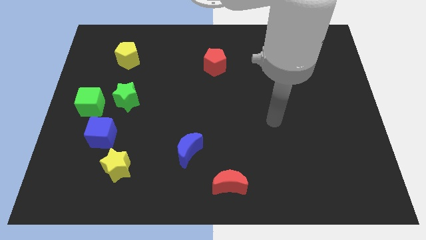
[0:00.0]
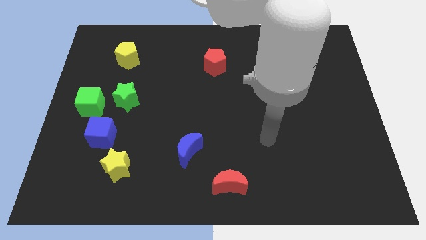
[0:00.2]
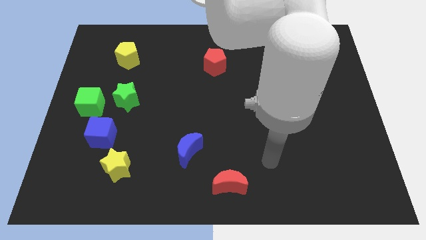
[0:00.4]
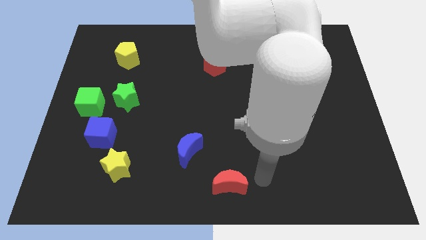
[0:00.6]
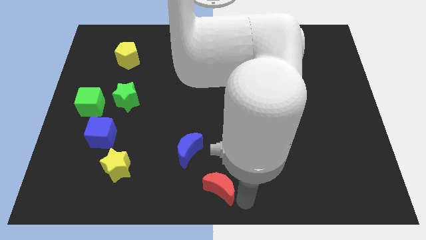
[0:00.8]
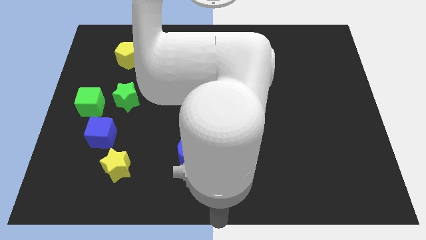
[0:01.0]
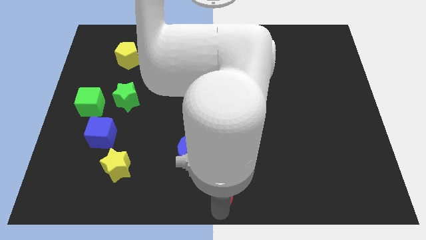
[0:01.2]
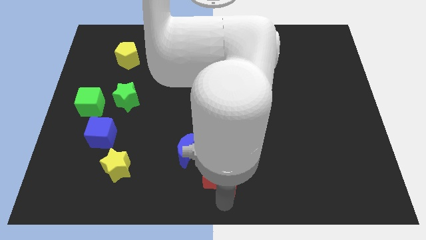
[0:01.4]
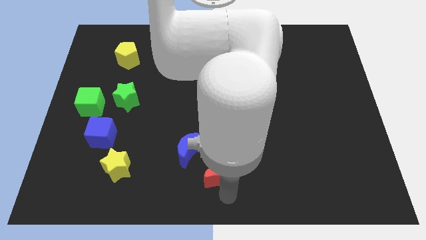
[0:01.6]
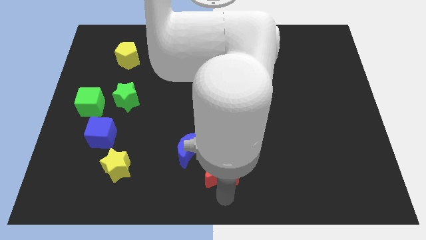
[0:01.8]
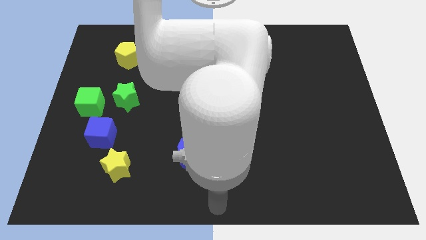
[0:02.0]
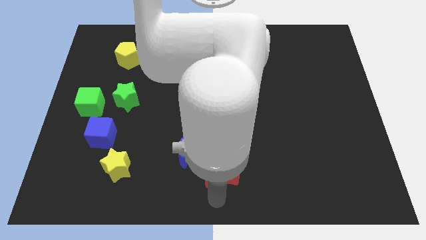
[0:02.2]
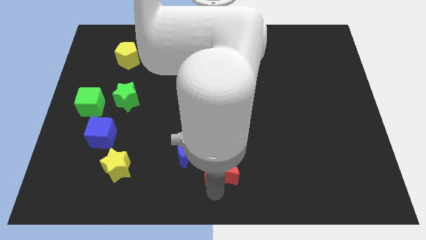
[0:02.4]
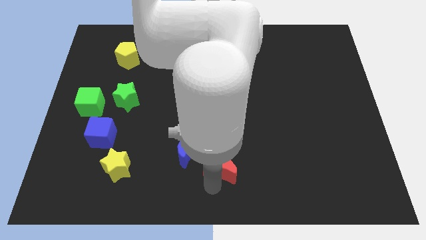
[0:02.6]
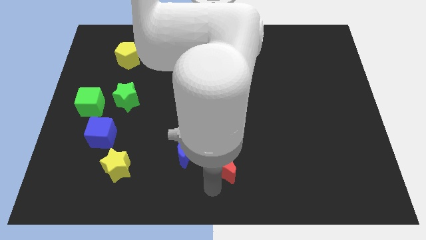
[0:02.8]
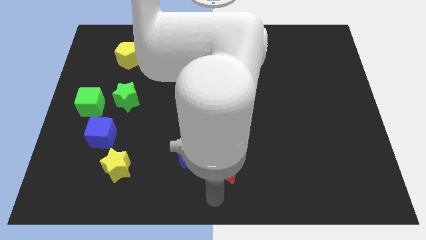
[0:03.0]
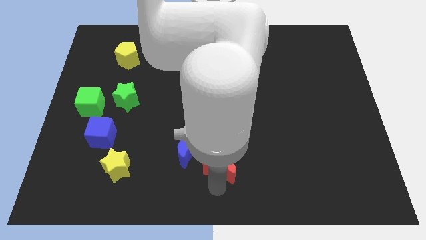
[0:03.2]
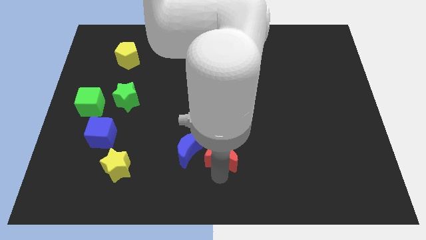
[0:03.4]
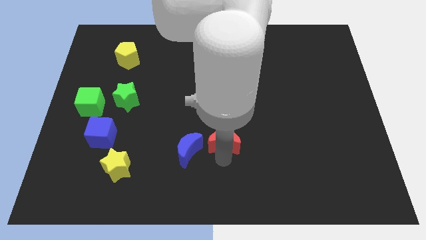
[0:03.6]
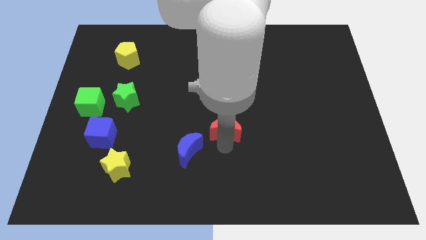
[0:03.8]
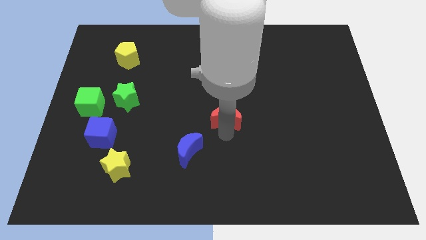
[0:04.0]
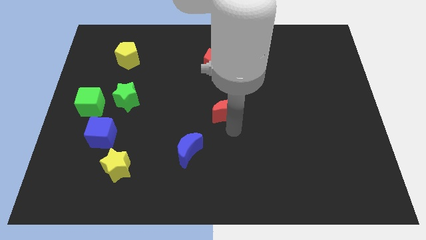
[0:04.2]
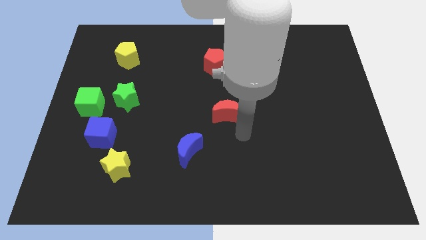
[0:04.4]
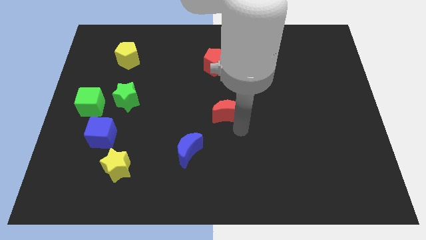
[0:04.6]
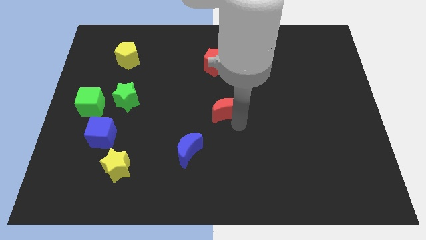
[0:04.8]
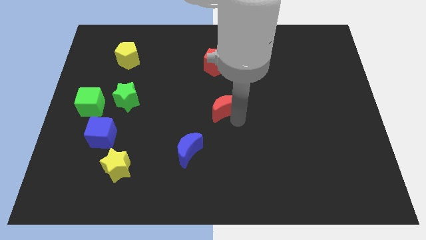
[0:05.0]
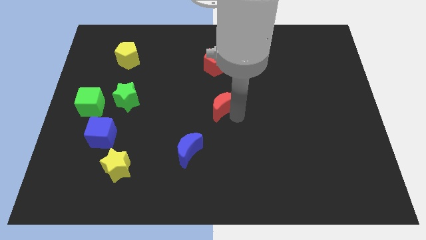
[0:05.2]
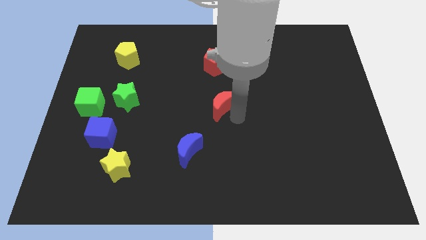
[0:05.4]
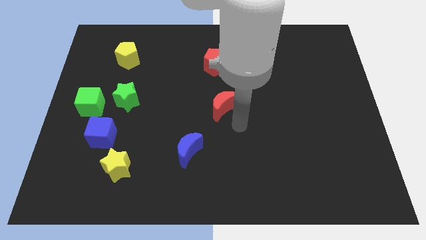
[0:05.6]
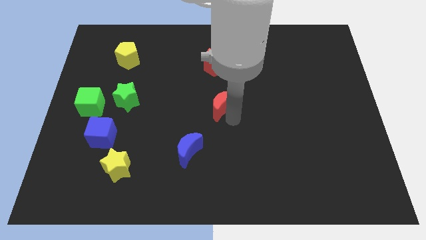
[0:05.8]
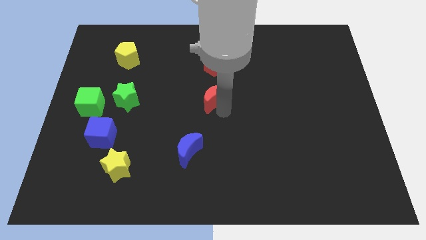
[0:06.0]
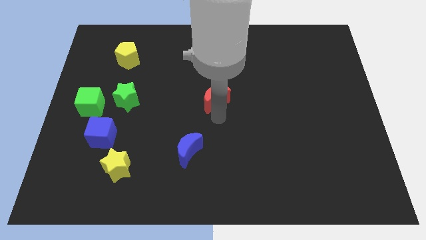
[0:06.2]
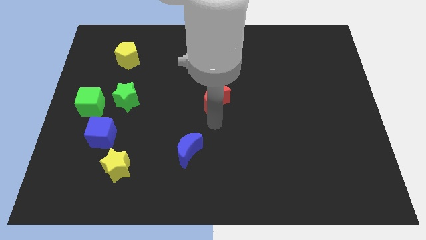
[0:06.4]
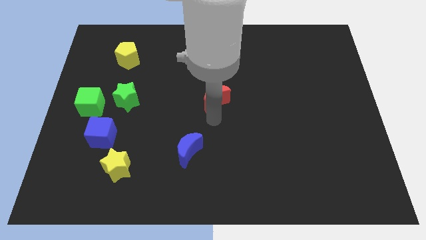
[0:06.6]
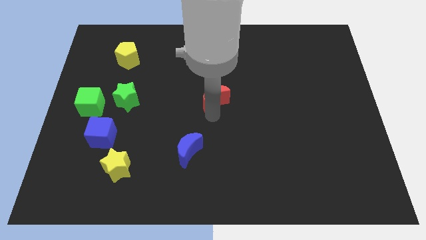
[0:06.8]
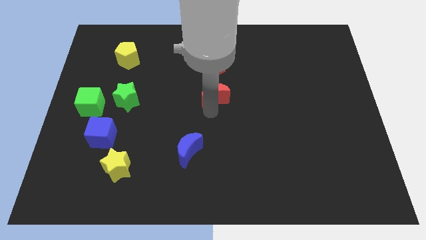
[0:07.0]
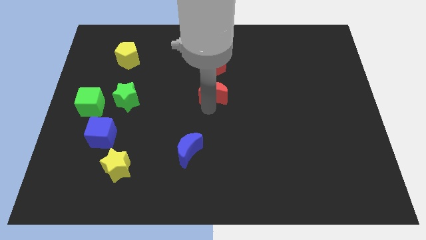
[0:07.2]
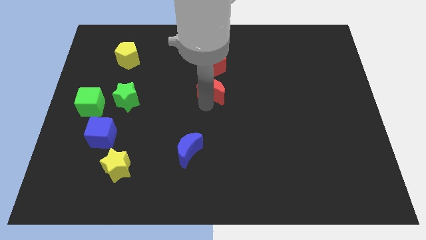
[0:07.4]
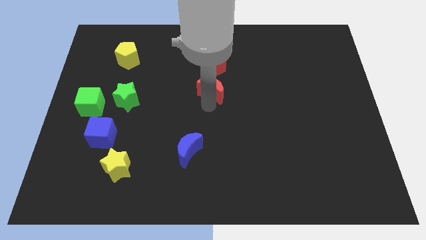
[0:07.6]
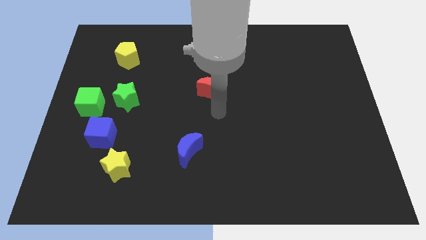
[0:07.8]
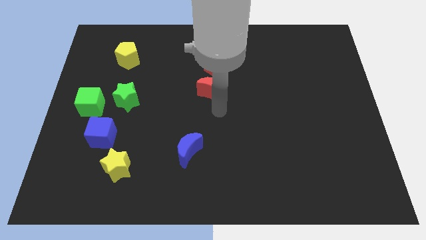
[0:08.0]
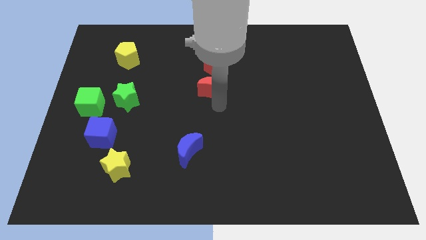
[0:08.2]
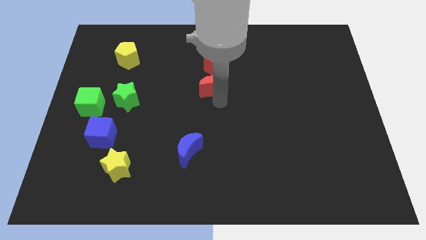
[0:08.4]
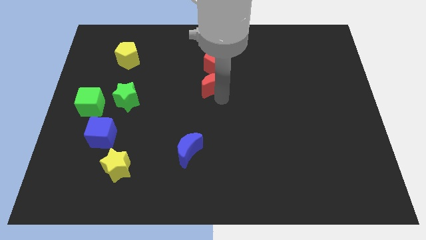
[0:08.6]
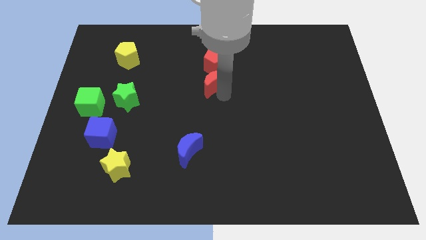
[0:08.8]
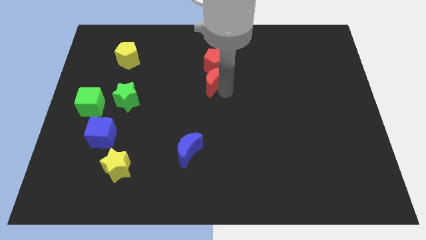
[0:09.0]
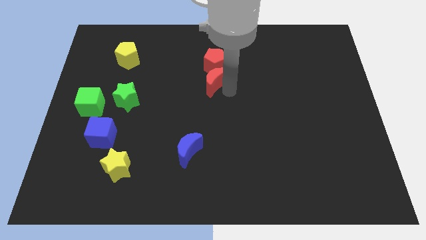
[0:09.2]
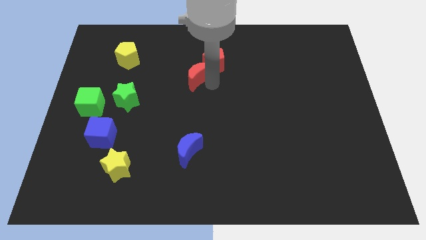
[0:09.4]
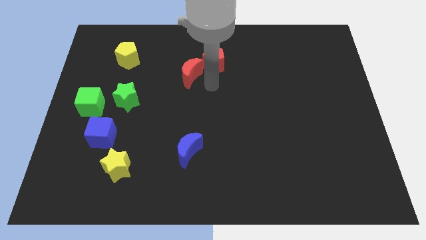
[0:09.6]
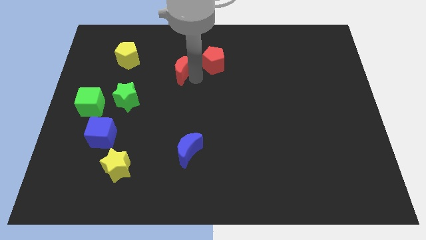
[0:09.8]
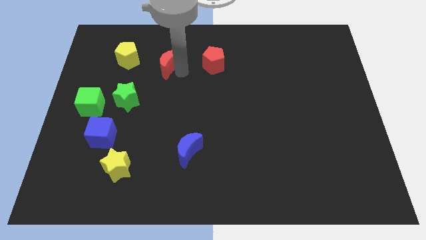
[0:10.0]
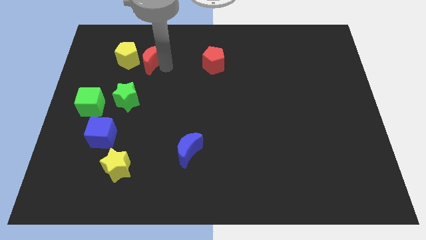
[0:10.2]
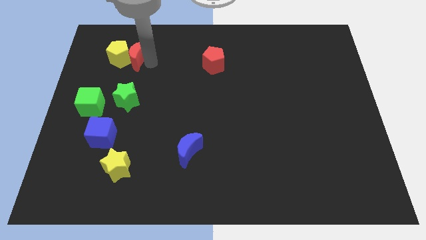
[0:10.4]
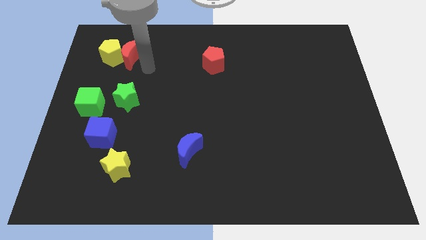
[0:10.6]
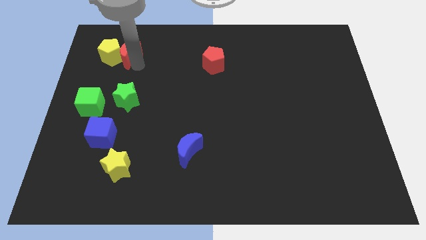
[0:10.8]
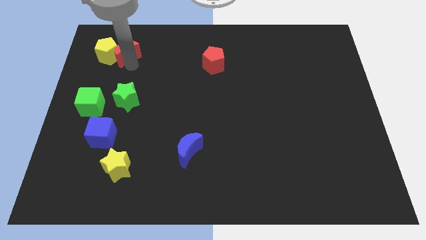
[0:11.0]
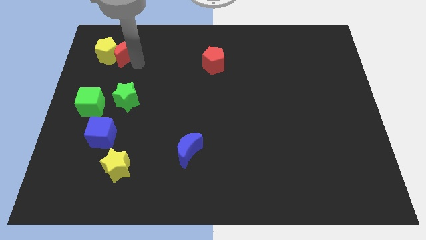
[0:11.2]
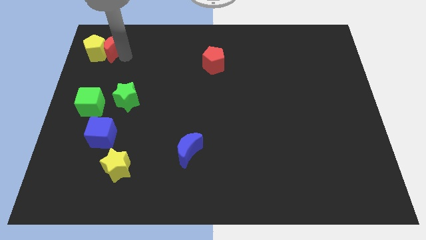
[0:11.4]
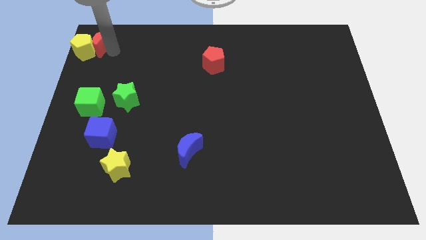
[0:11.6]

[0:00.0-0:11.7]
push the red moon to the top left

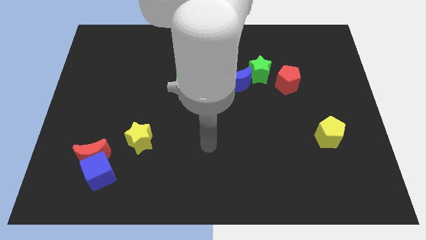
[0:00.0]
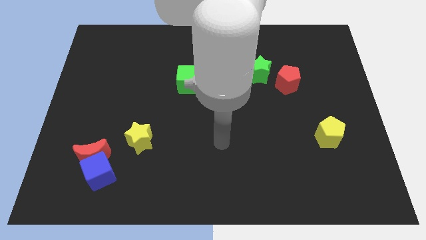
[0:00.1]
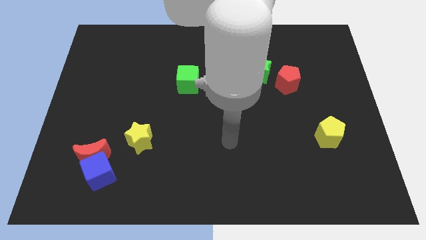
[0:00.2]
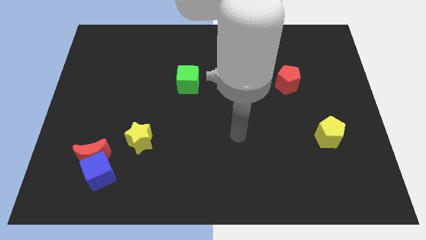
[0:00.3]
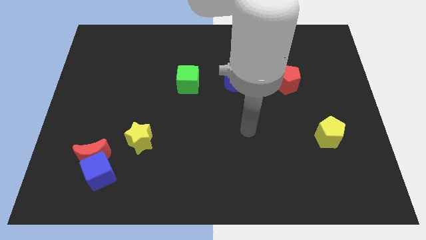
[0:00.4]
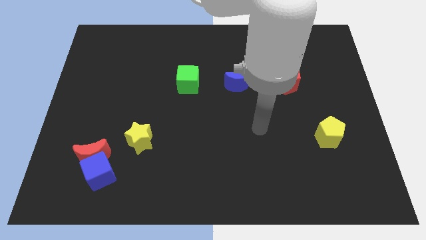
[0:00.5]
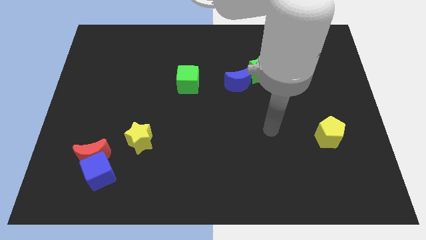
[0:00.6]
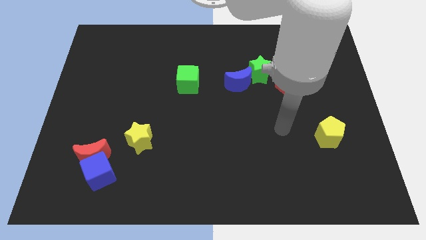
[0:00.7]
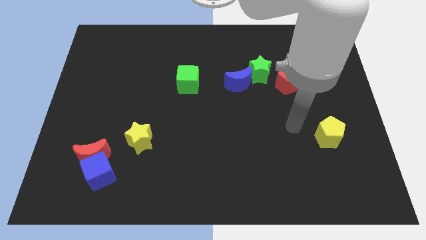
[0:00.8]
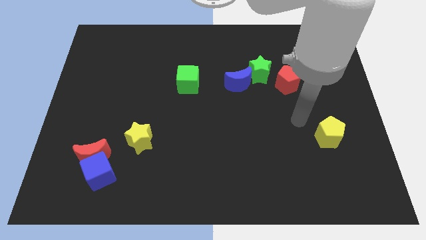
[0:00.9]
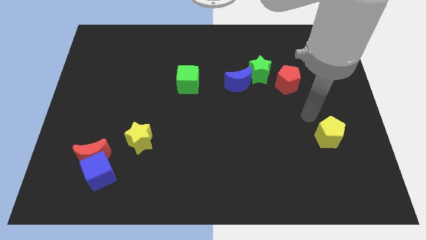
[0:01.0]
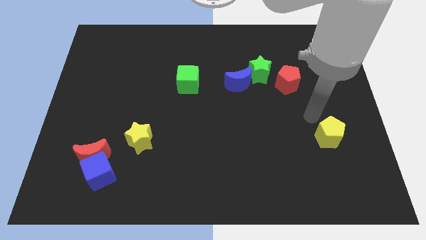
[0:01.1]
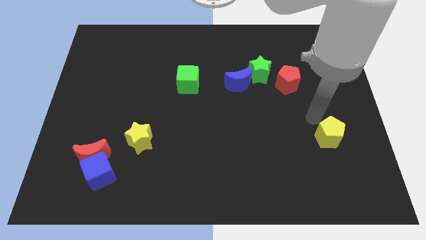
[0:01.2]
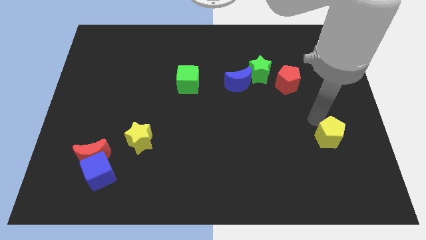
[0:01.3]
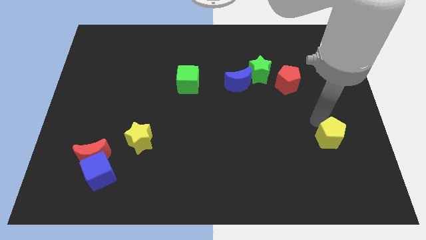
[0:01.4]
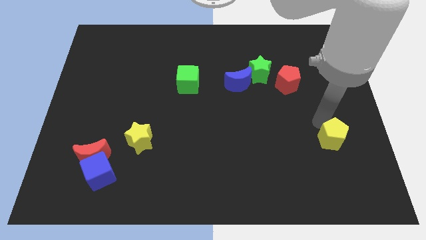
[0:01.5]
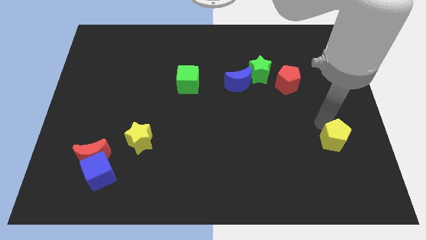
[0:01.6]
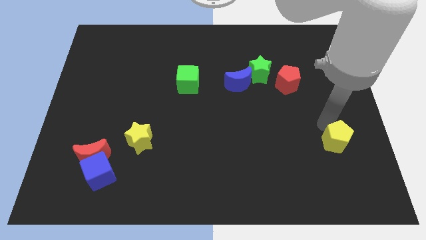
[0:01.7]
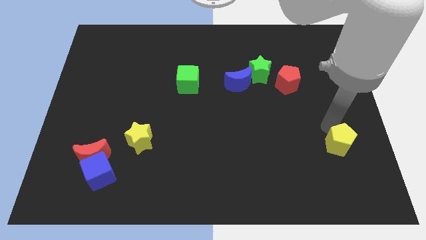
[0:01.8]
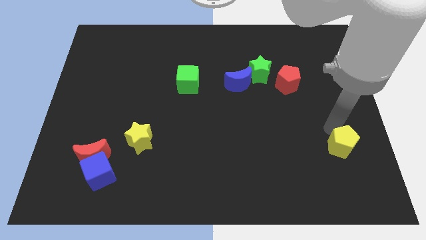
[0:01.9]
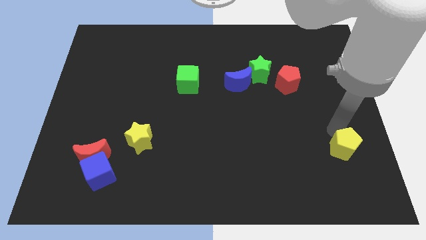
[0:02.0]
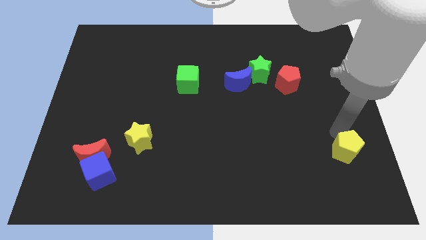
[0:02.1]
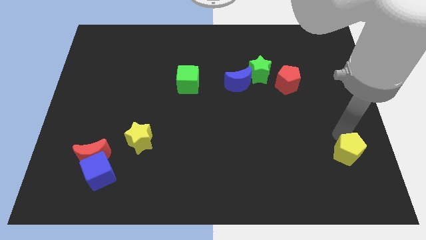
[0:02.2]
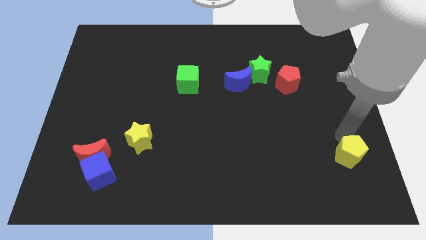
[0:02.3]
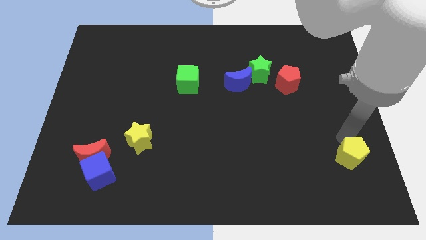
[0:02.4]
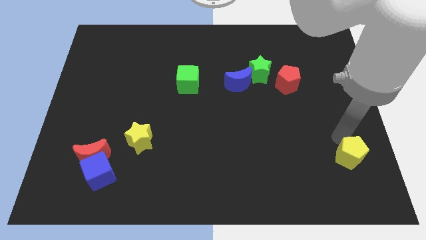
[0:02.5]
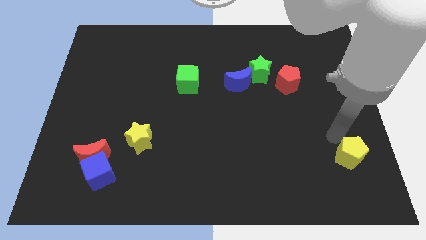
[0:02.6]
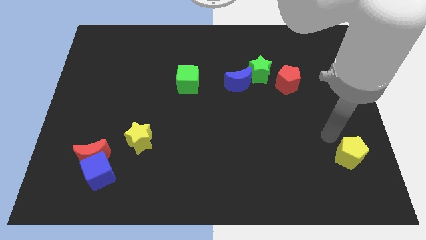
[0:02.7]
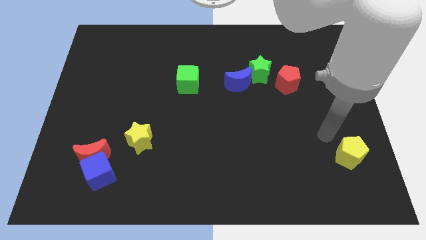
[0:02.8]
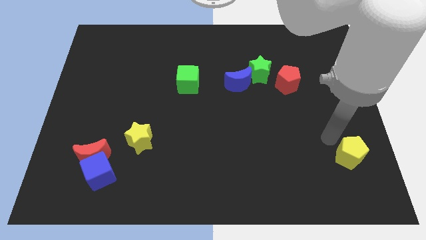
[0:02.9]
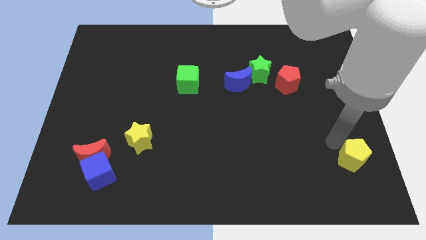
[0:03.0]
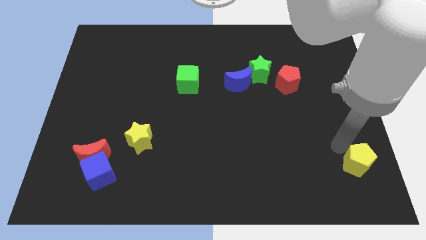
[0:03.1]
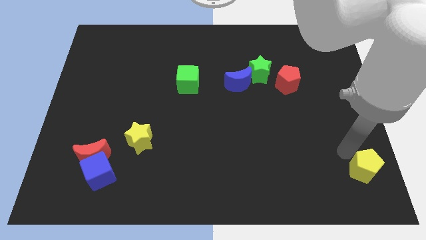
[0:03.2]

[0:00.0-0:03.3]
move the yellow pentagon to the bottom right
